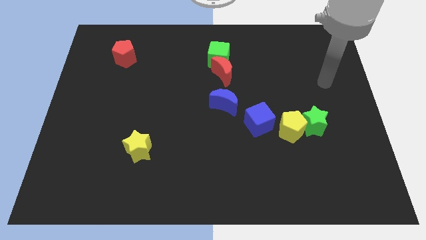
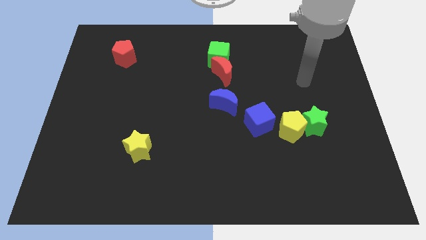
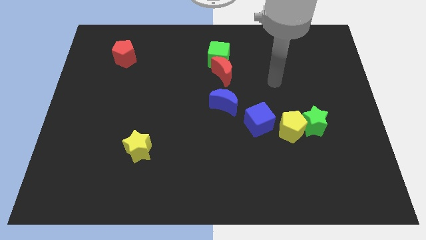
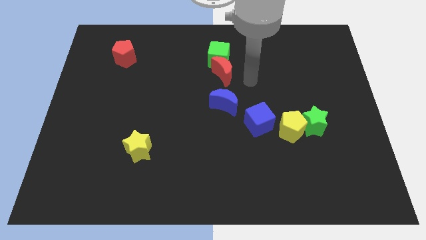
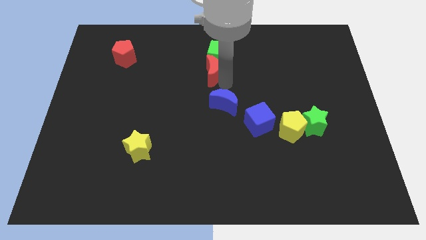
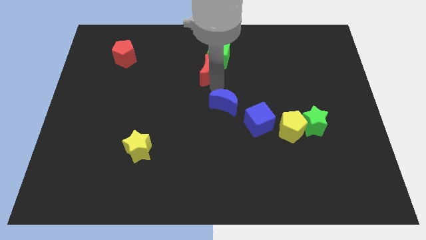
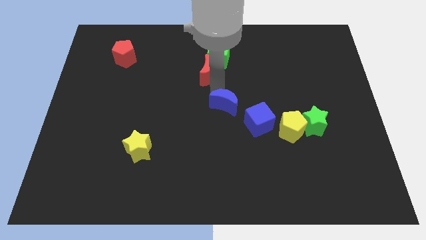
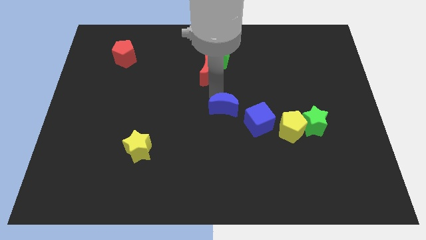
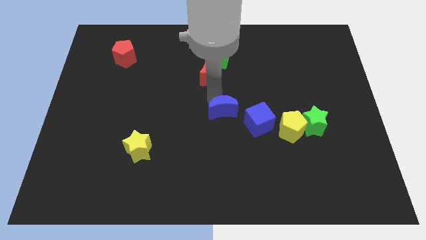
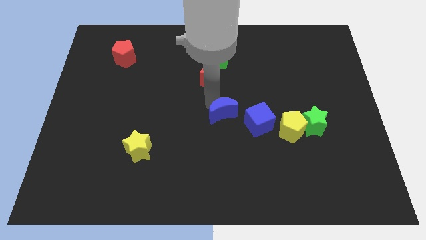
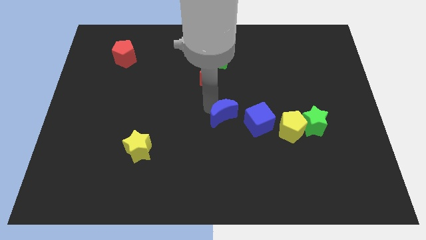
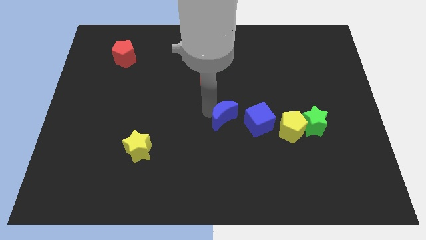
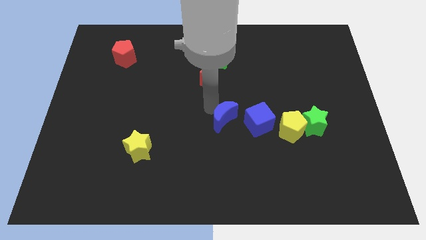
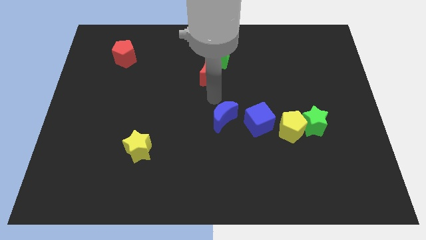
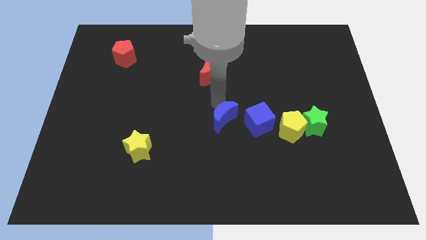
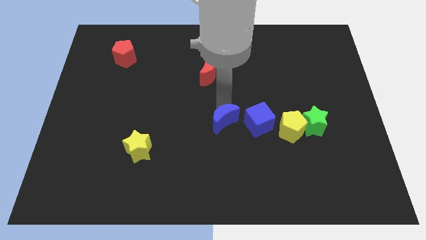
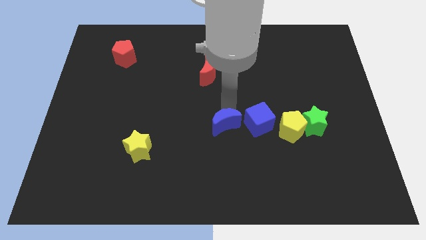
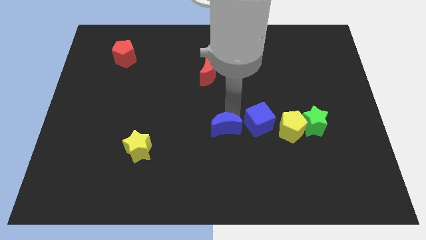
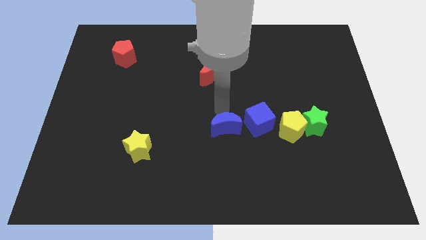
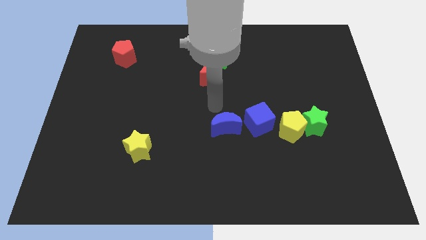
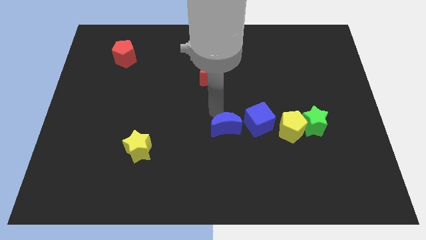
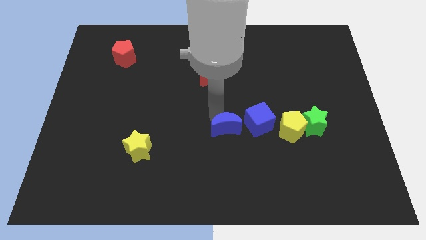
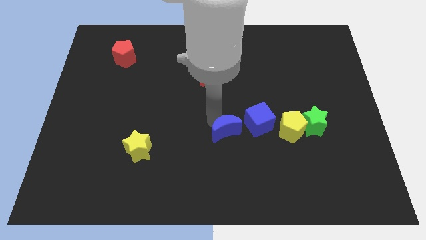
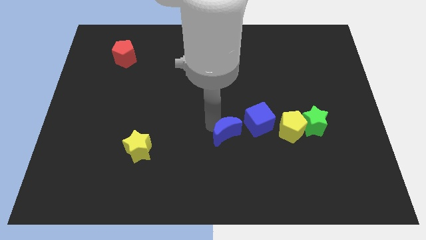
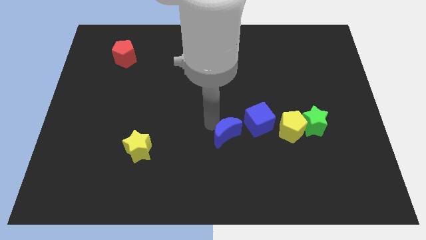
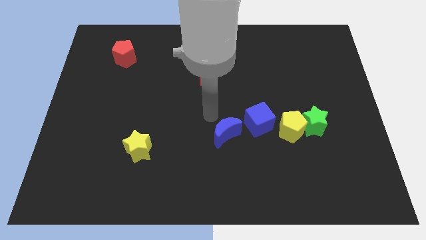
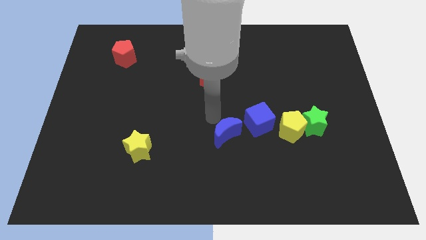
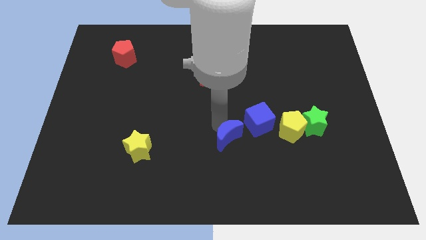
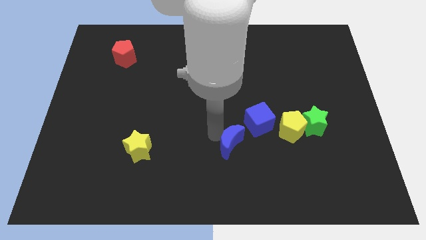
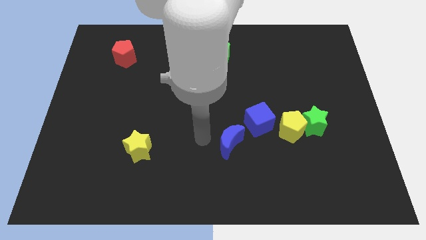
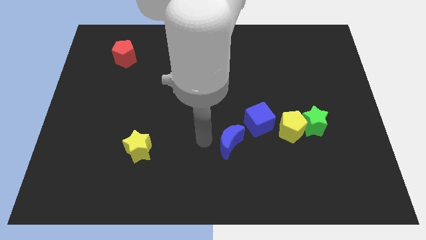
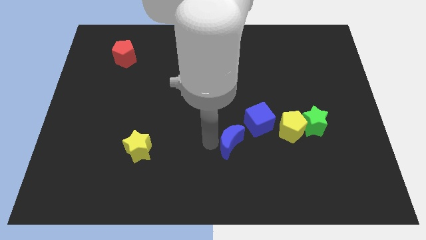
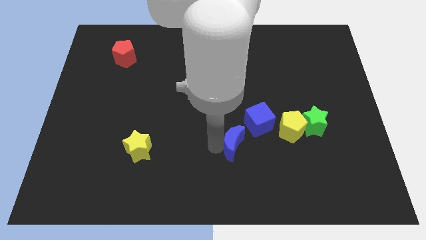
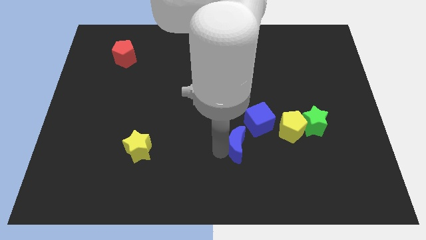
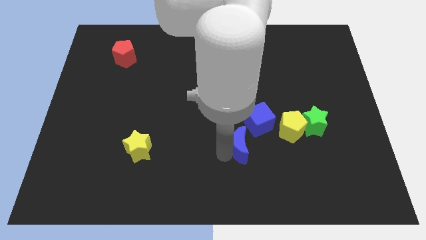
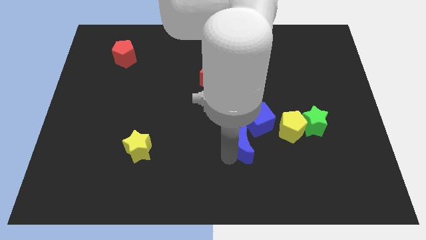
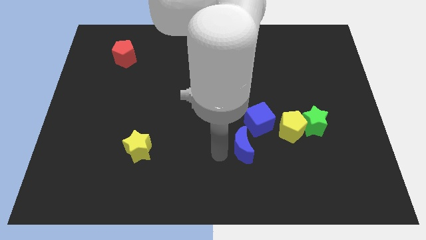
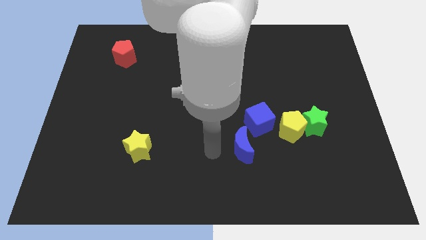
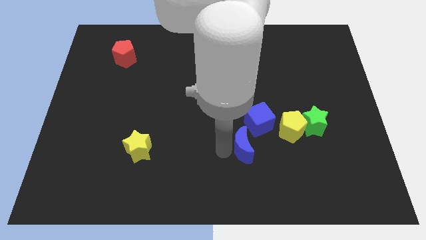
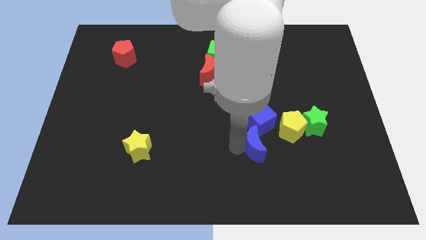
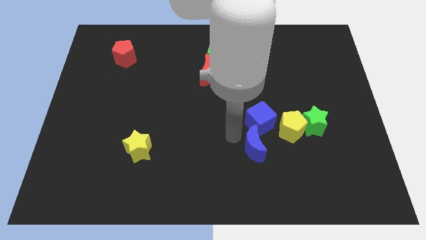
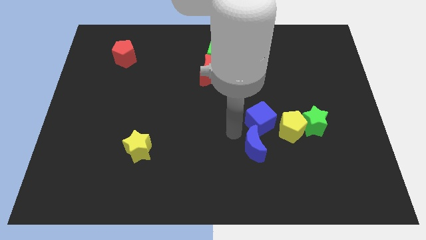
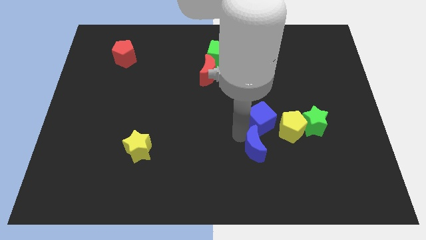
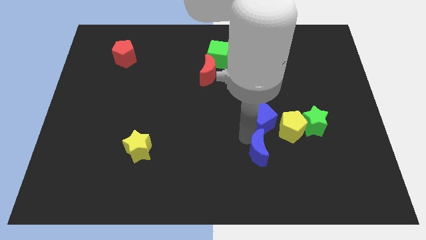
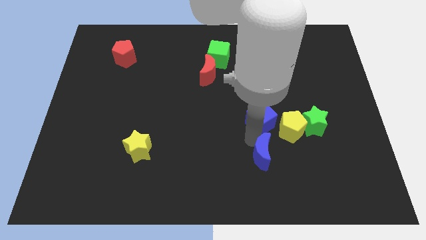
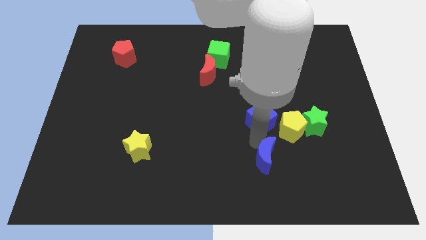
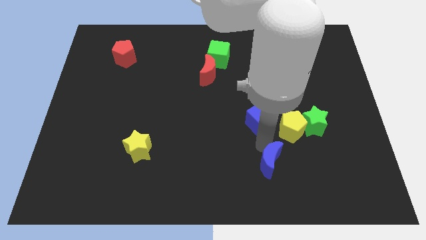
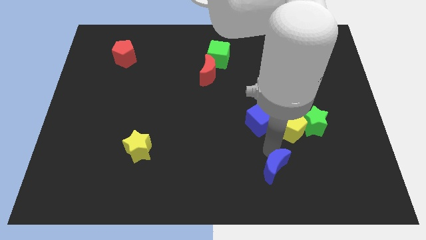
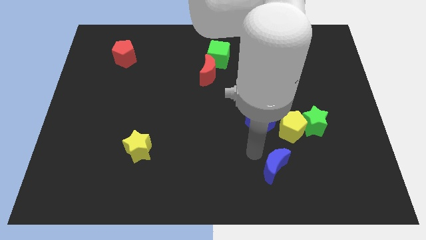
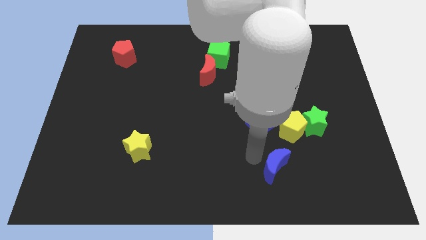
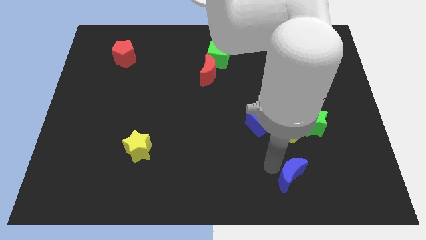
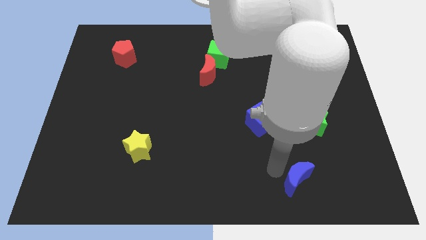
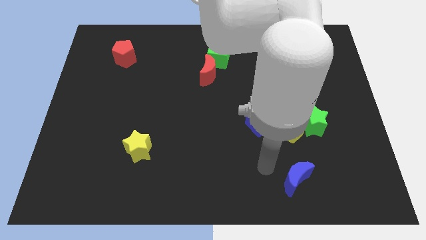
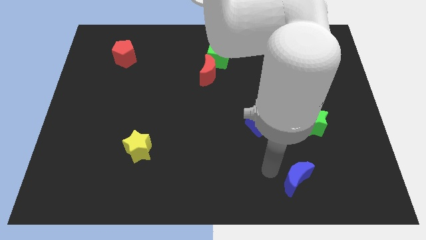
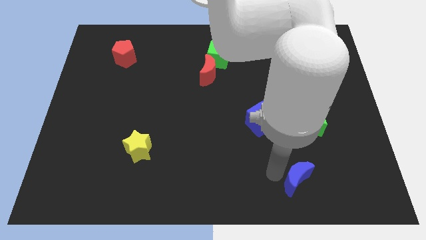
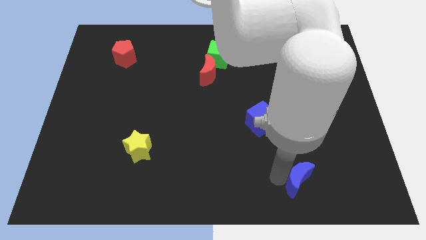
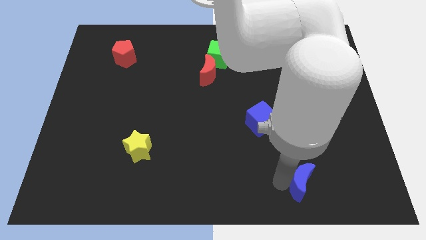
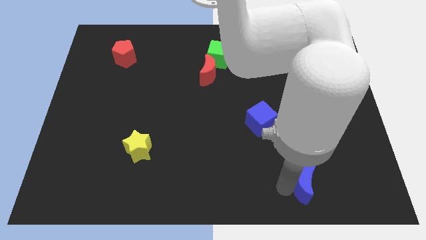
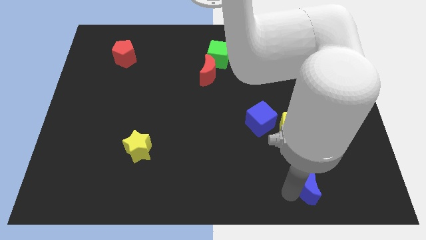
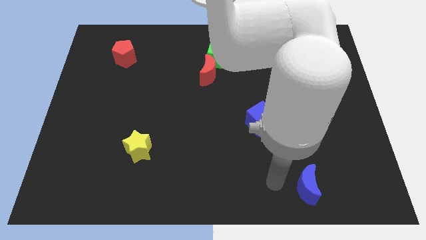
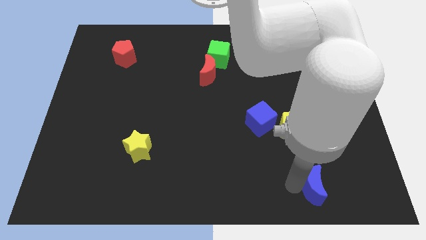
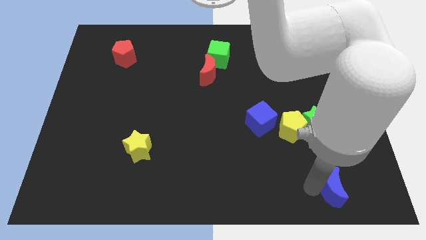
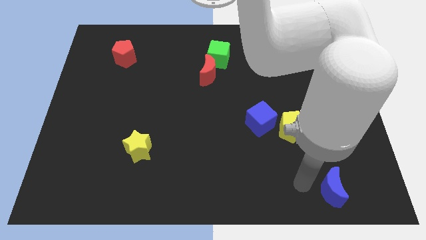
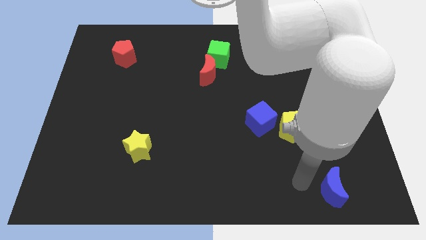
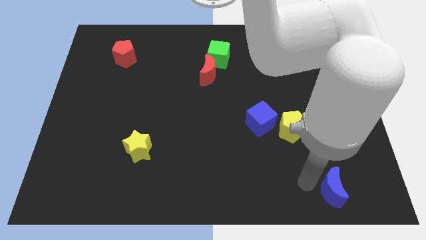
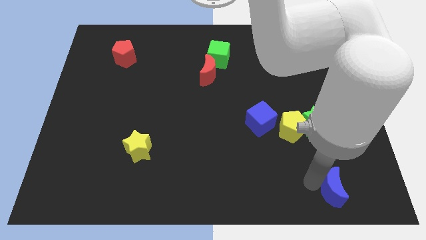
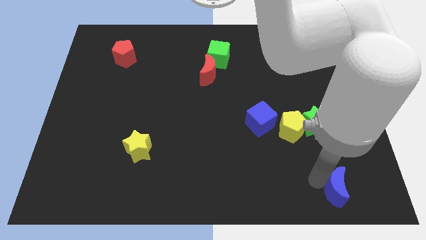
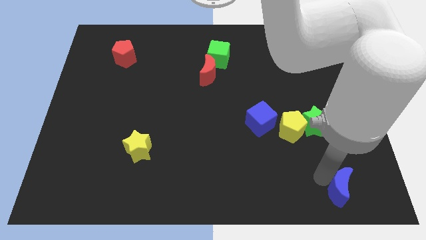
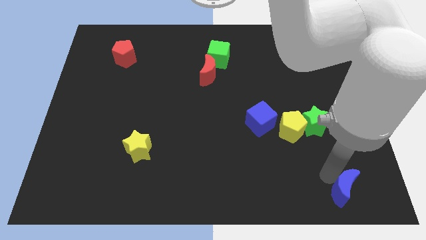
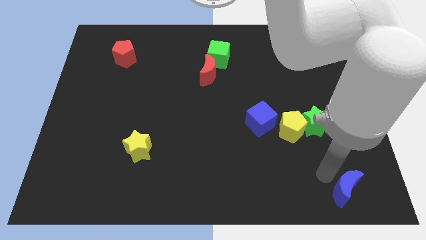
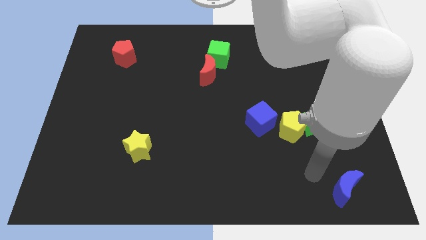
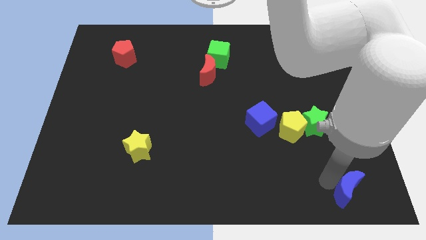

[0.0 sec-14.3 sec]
slide the blue moon to the bottom right corner

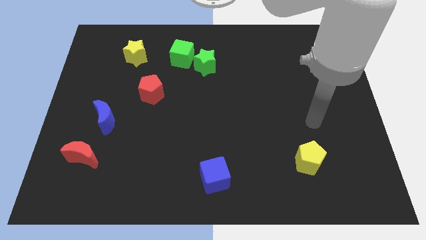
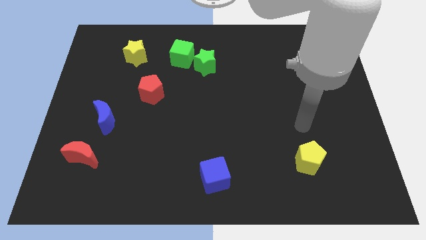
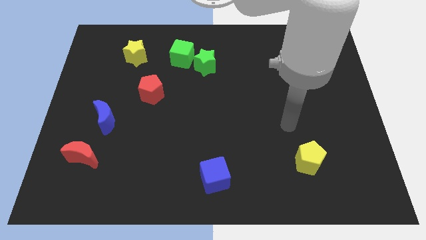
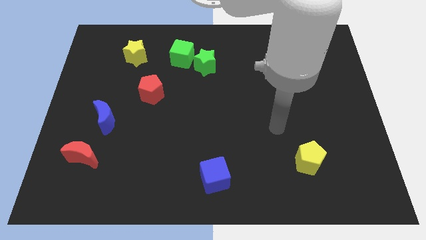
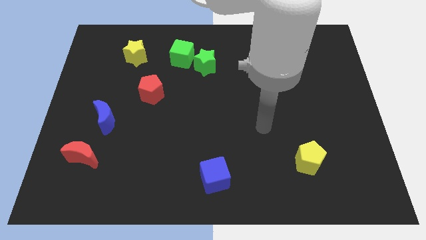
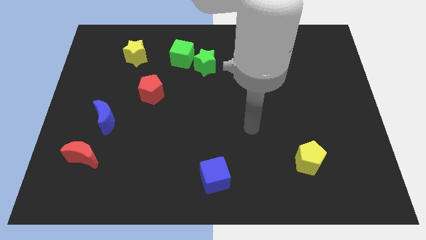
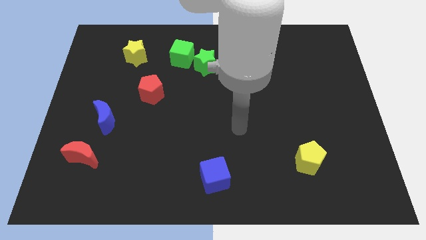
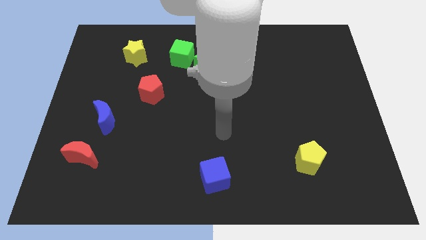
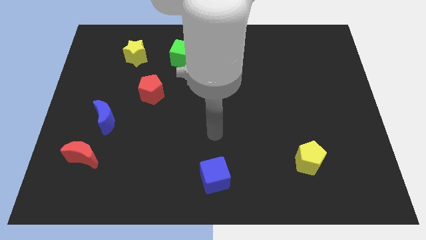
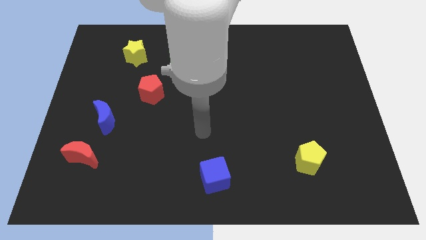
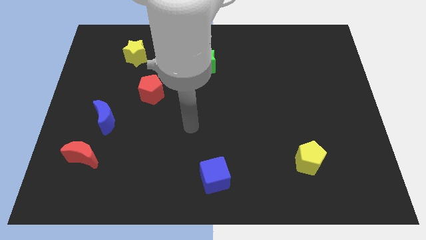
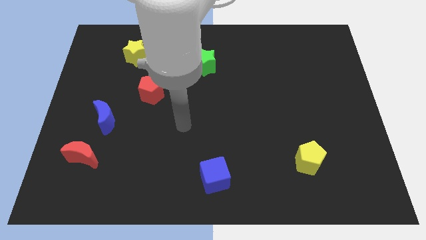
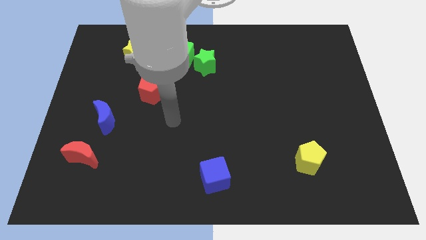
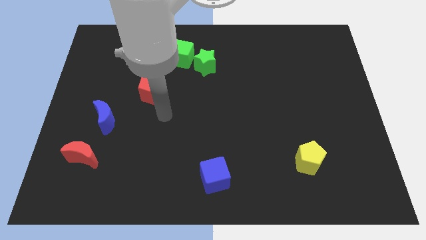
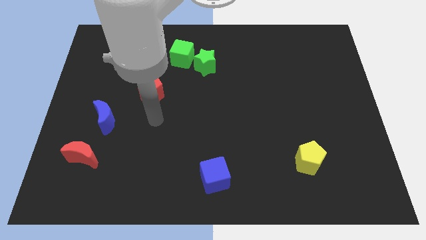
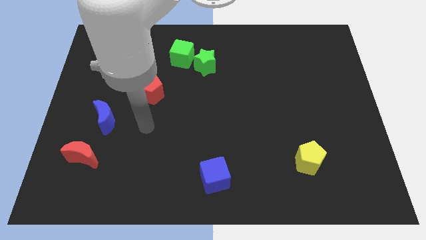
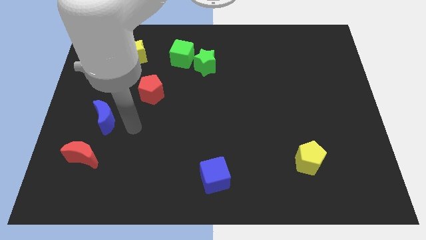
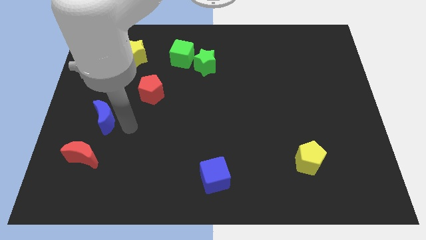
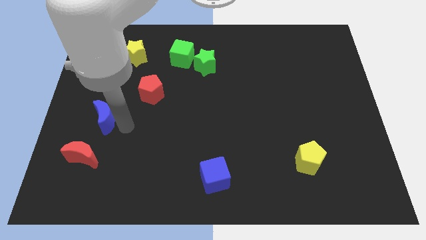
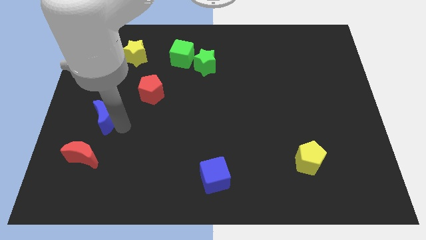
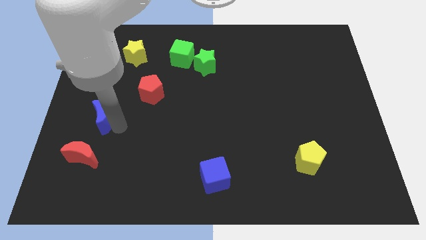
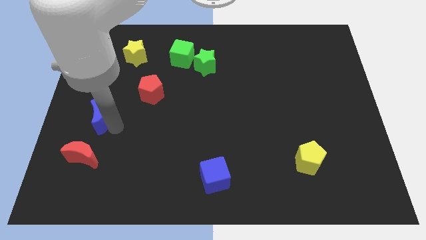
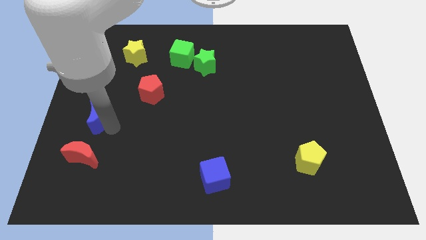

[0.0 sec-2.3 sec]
put the blue moon to the left side of the board
